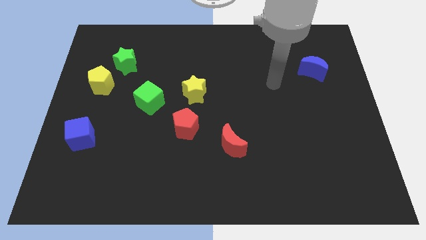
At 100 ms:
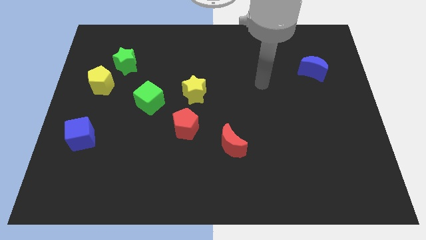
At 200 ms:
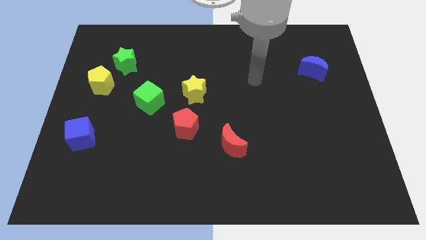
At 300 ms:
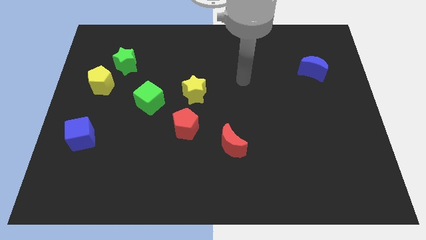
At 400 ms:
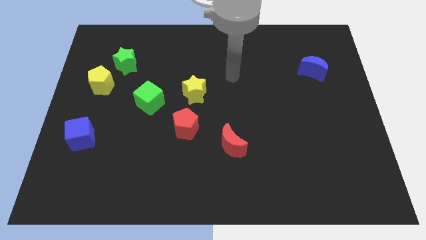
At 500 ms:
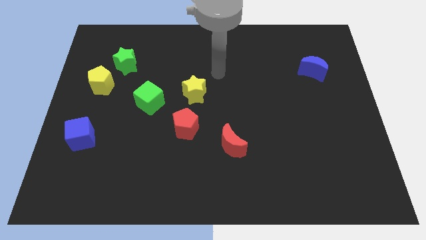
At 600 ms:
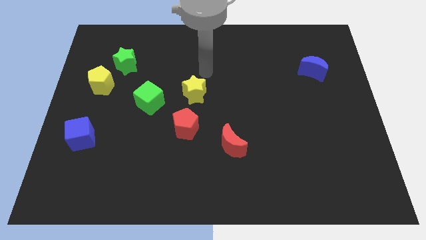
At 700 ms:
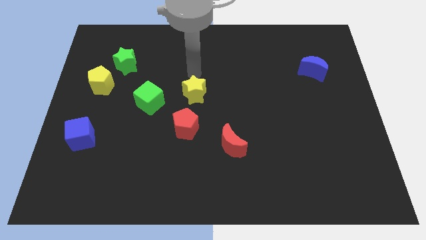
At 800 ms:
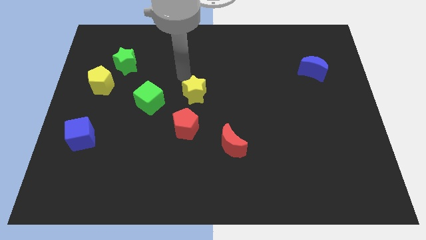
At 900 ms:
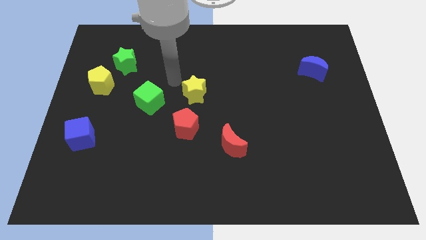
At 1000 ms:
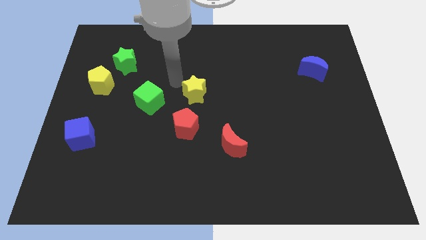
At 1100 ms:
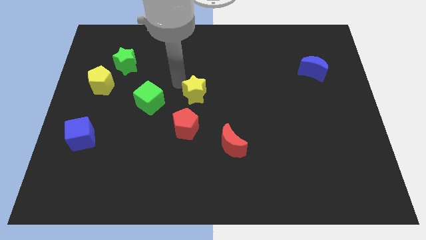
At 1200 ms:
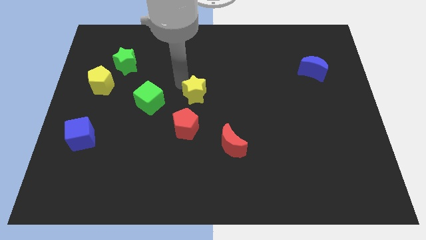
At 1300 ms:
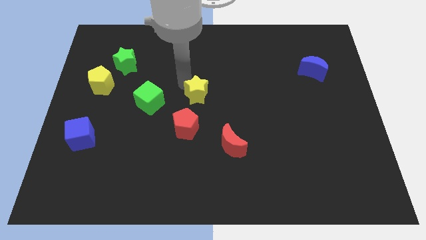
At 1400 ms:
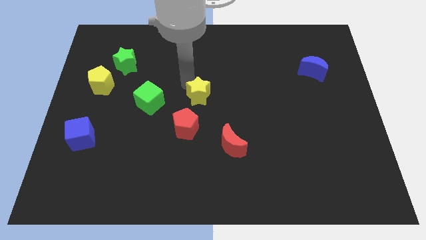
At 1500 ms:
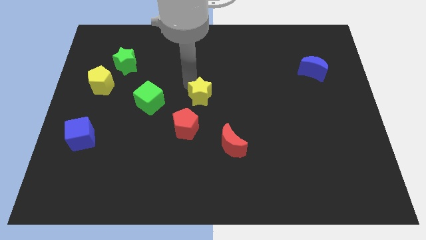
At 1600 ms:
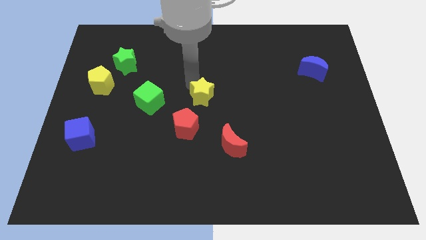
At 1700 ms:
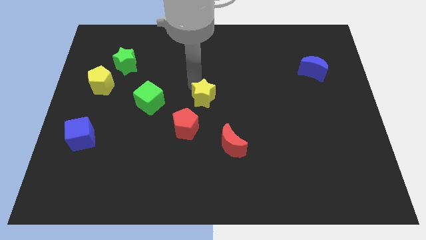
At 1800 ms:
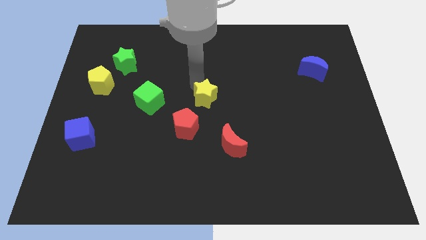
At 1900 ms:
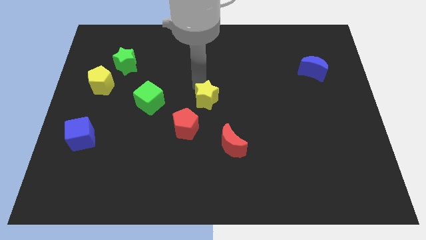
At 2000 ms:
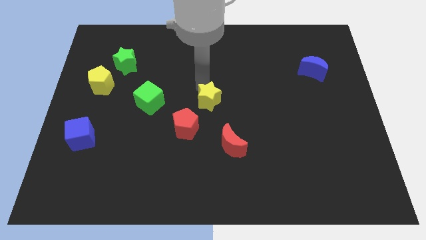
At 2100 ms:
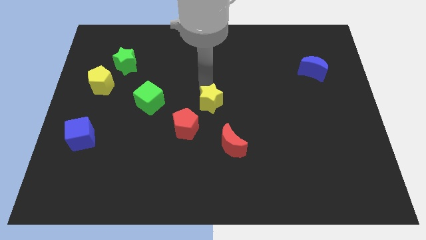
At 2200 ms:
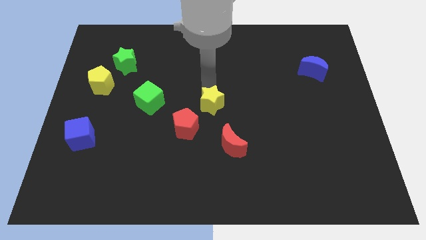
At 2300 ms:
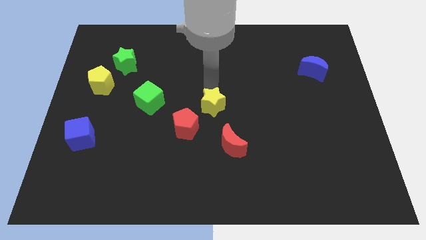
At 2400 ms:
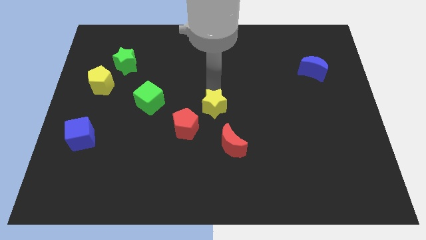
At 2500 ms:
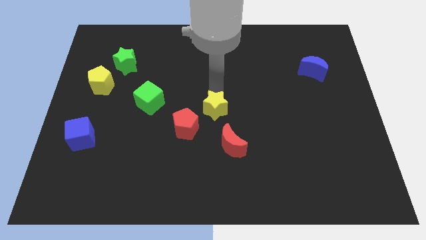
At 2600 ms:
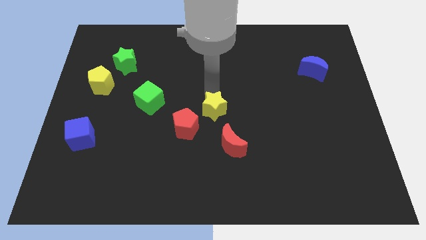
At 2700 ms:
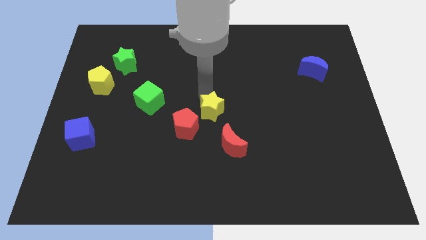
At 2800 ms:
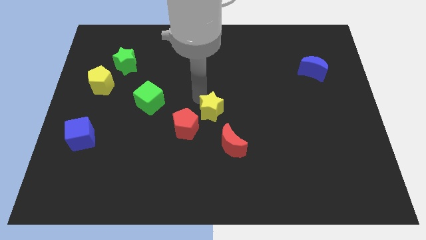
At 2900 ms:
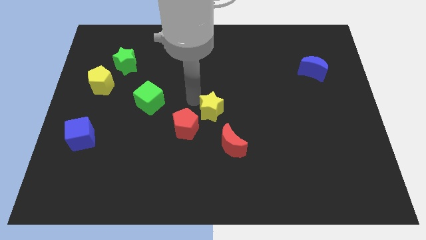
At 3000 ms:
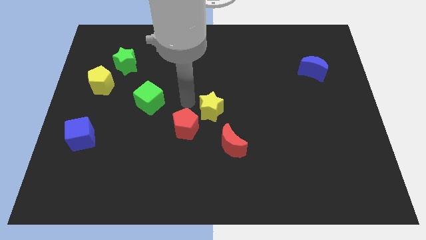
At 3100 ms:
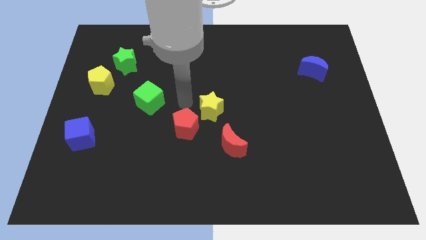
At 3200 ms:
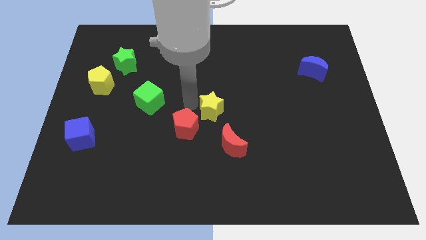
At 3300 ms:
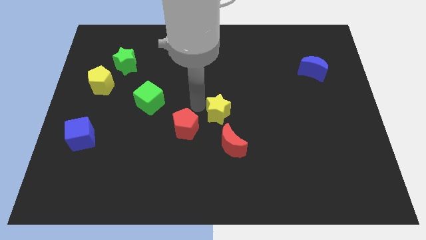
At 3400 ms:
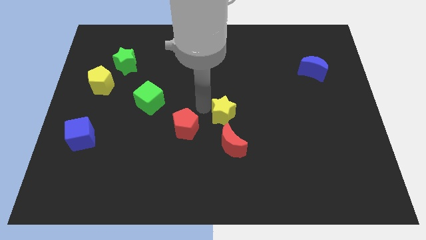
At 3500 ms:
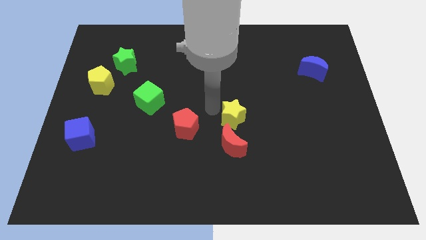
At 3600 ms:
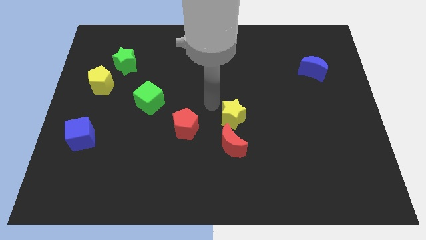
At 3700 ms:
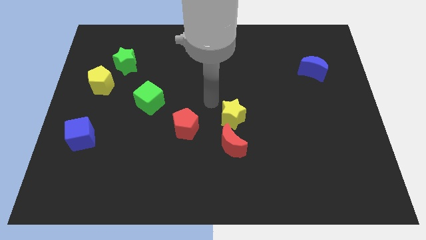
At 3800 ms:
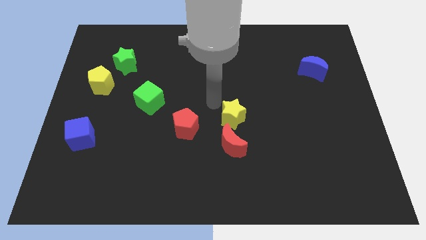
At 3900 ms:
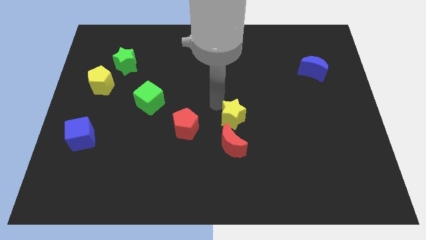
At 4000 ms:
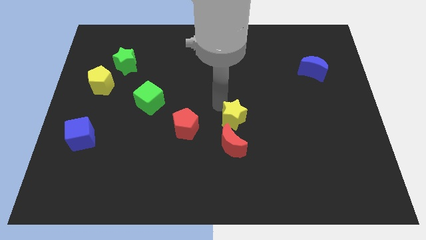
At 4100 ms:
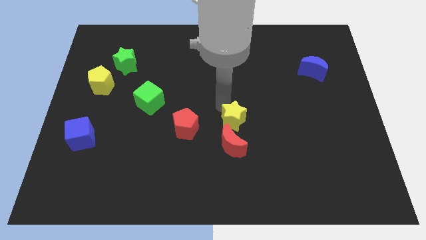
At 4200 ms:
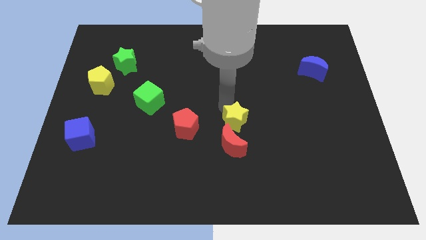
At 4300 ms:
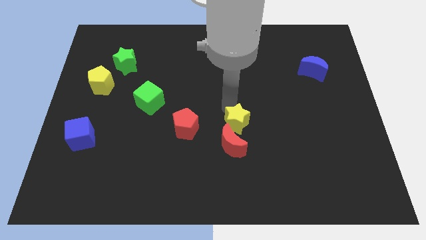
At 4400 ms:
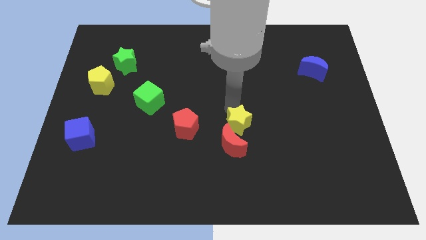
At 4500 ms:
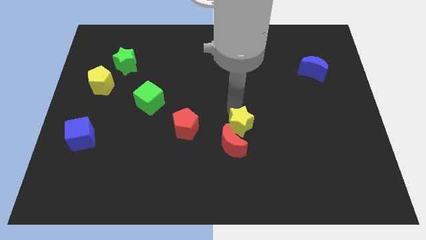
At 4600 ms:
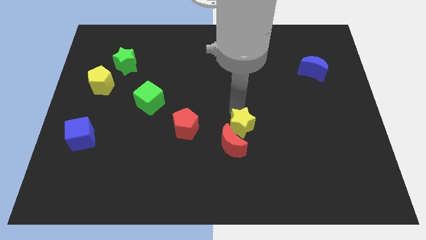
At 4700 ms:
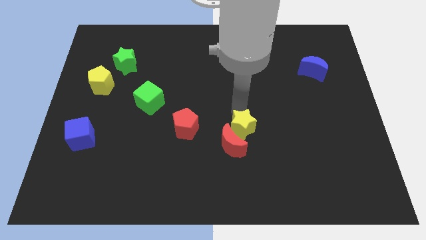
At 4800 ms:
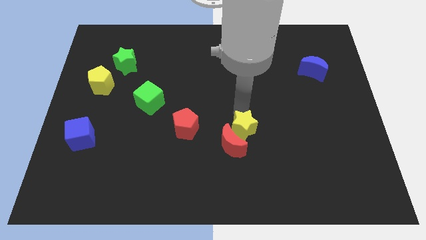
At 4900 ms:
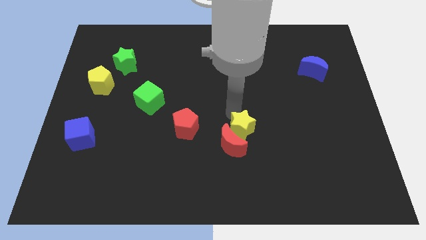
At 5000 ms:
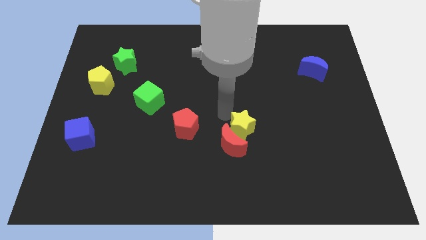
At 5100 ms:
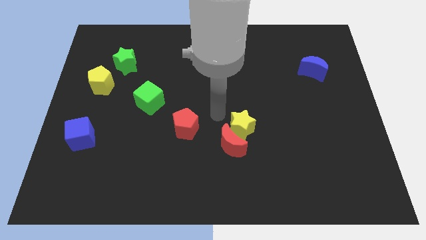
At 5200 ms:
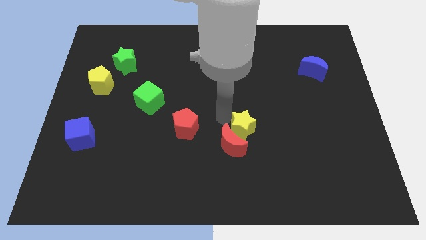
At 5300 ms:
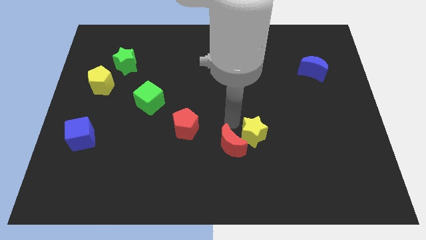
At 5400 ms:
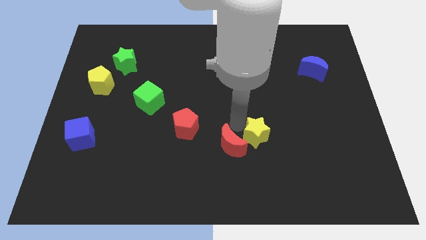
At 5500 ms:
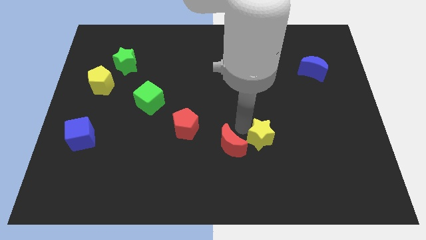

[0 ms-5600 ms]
move the yellow star diagonally downwards and to the right

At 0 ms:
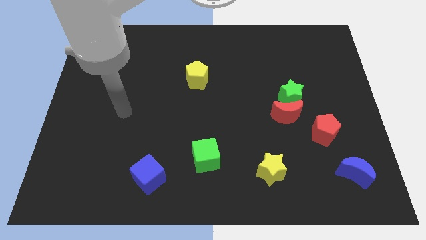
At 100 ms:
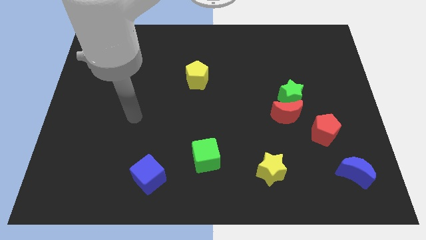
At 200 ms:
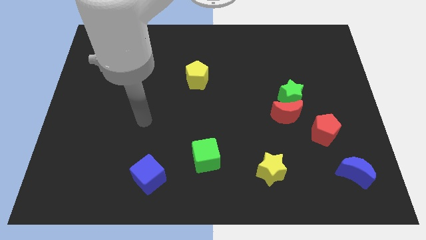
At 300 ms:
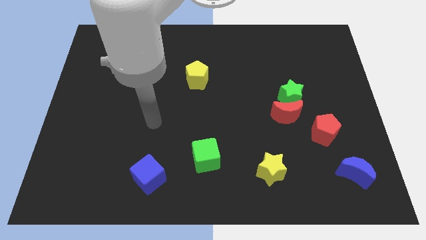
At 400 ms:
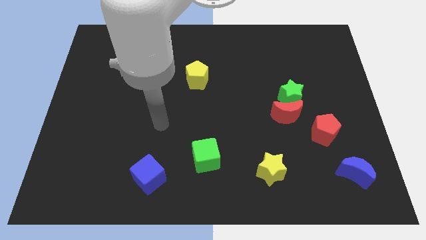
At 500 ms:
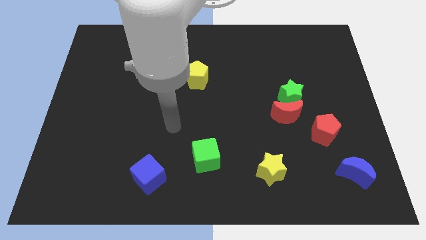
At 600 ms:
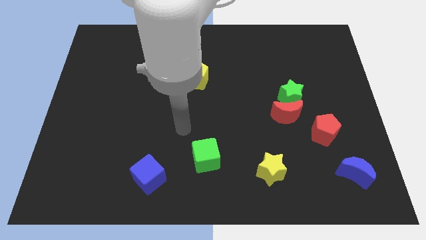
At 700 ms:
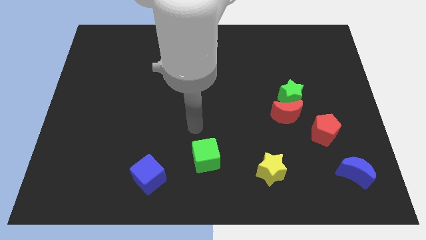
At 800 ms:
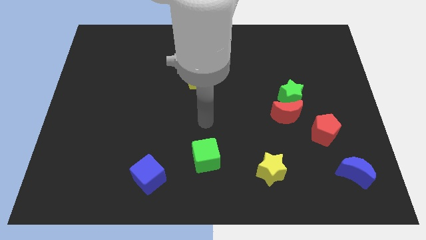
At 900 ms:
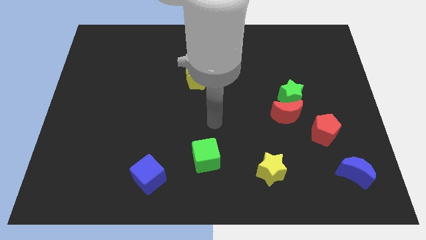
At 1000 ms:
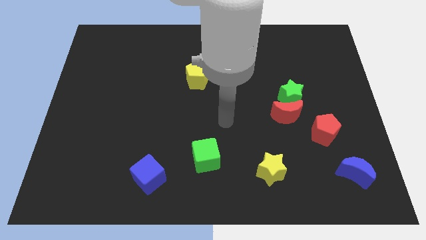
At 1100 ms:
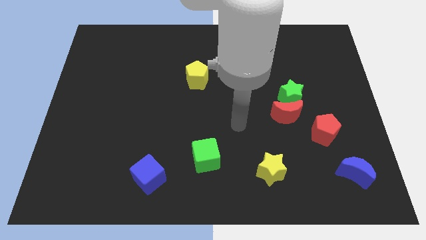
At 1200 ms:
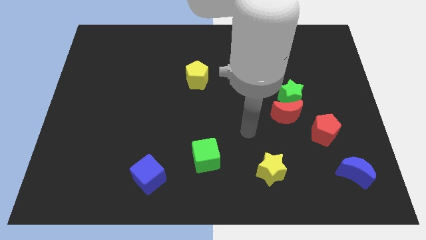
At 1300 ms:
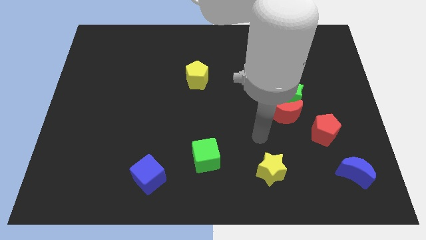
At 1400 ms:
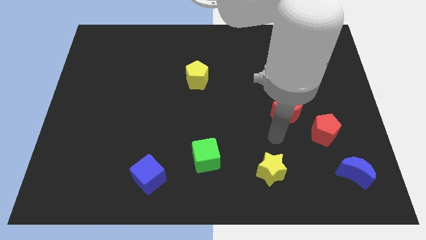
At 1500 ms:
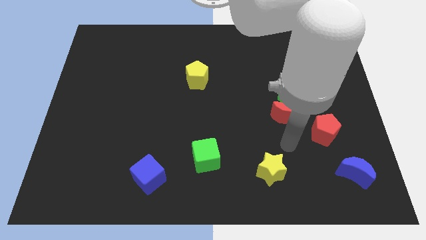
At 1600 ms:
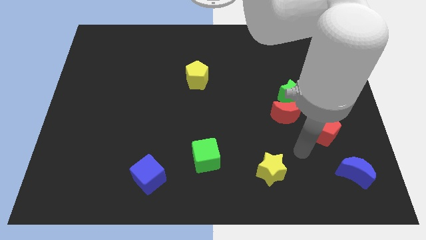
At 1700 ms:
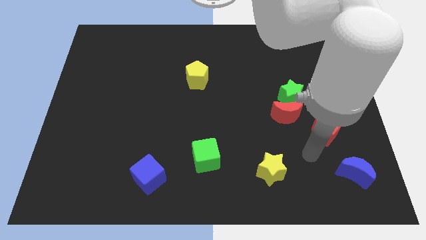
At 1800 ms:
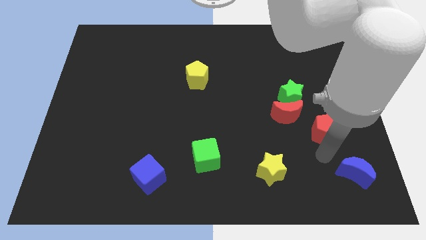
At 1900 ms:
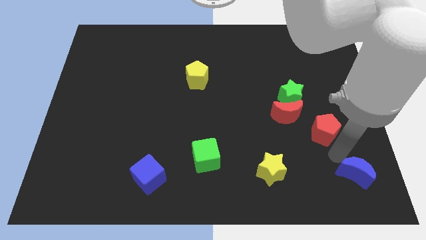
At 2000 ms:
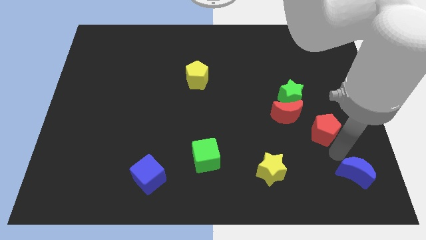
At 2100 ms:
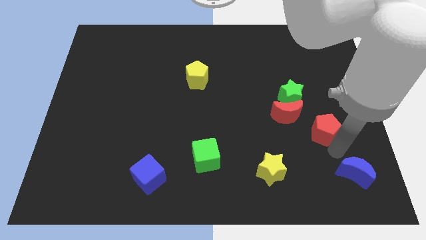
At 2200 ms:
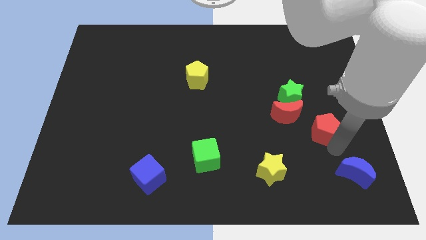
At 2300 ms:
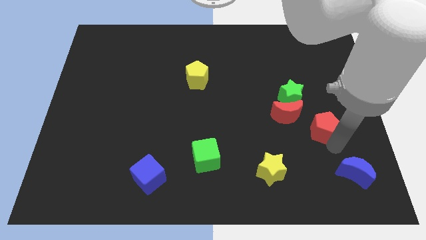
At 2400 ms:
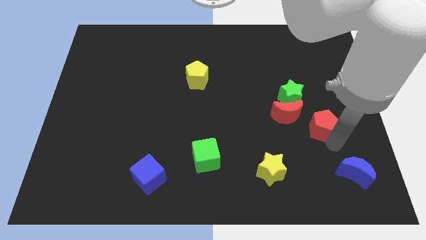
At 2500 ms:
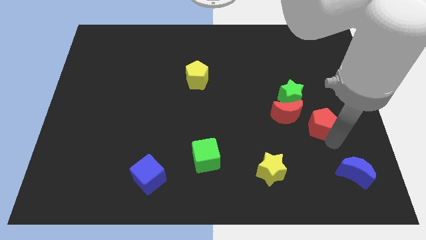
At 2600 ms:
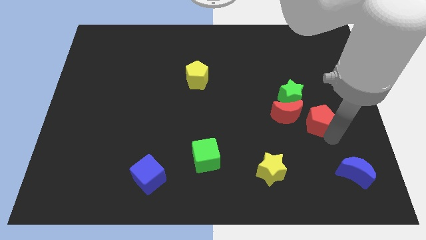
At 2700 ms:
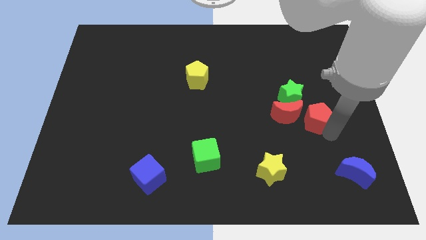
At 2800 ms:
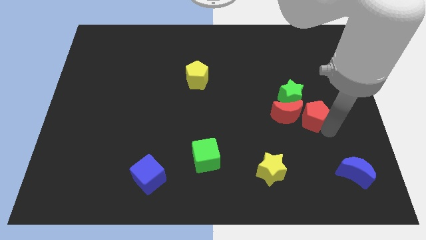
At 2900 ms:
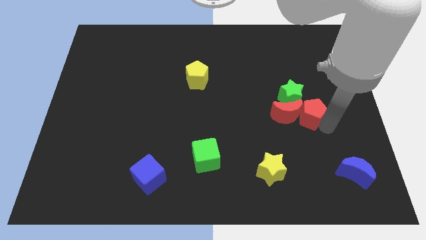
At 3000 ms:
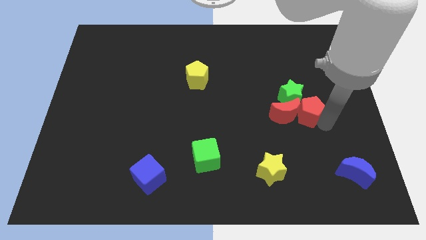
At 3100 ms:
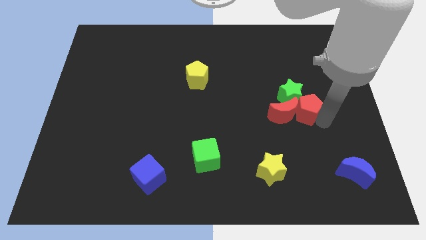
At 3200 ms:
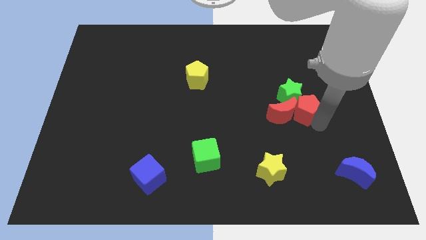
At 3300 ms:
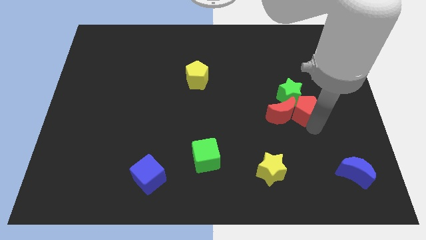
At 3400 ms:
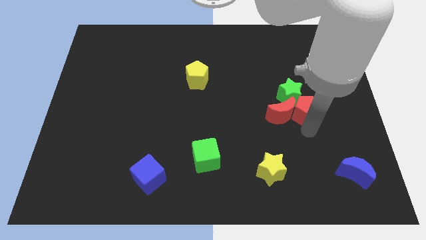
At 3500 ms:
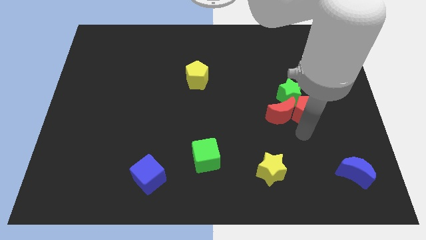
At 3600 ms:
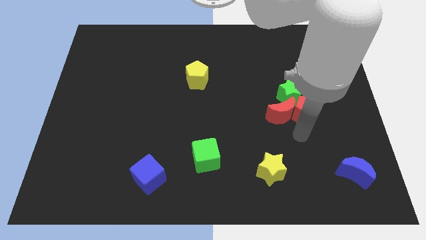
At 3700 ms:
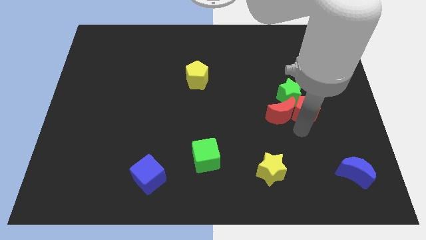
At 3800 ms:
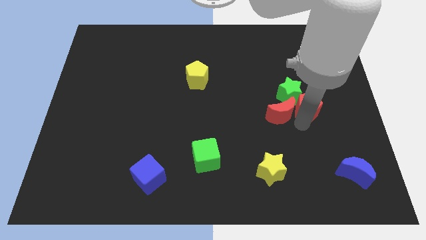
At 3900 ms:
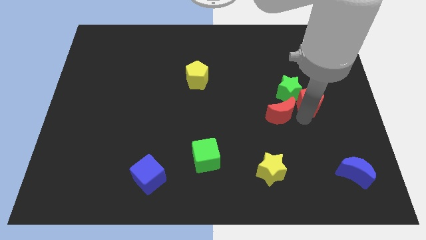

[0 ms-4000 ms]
slightly move the red pentagon upwards
